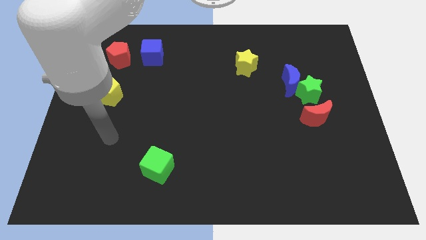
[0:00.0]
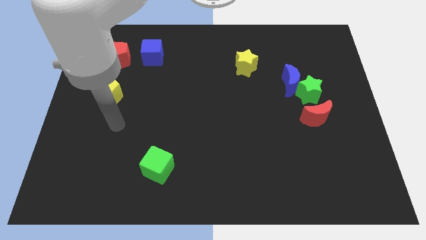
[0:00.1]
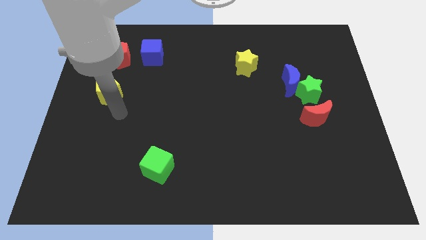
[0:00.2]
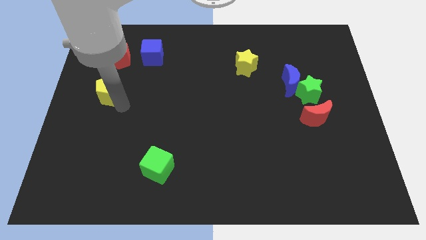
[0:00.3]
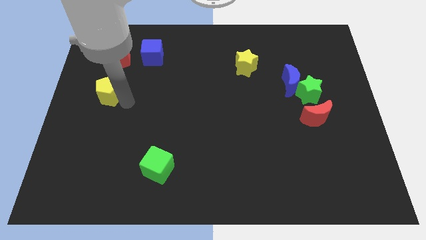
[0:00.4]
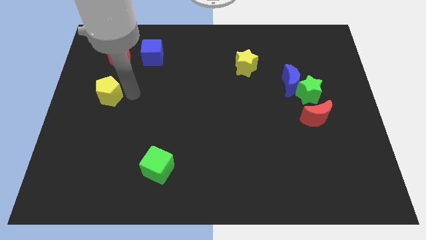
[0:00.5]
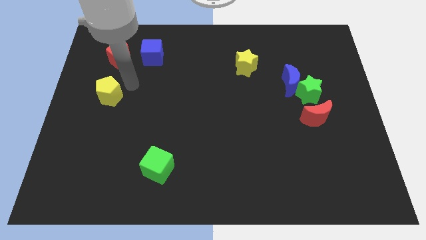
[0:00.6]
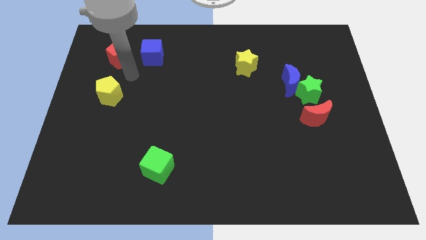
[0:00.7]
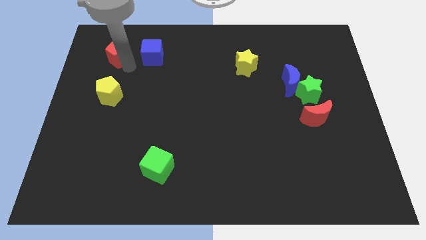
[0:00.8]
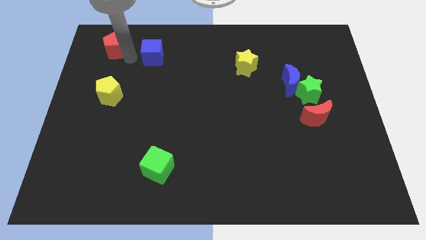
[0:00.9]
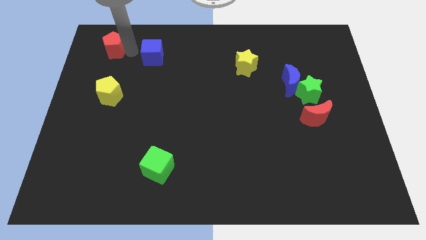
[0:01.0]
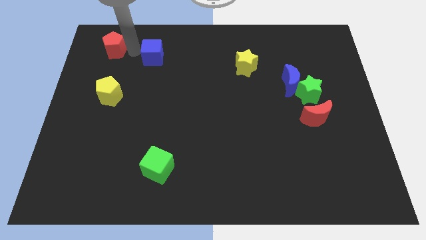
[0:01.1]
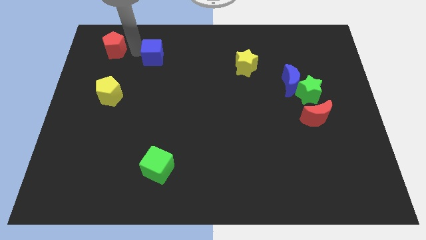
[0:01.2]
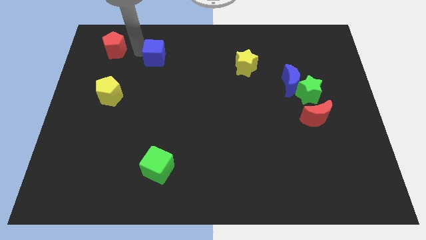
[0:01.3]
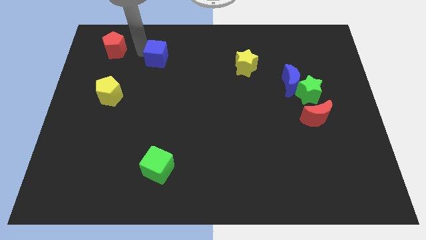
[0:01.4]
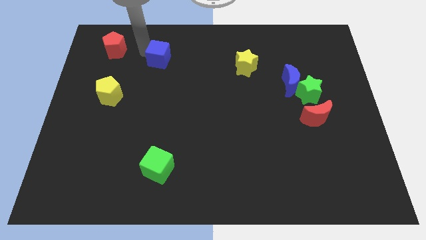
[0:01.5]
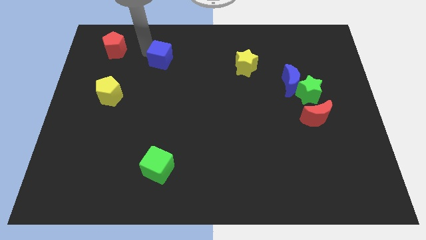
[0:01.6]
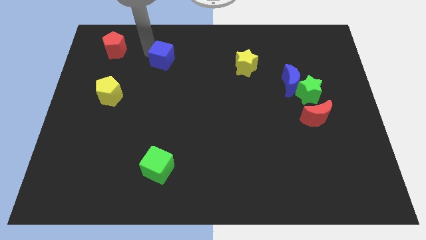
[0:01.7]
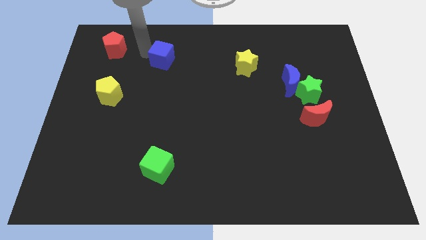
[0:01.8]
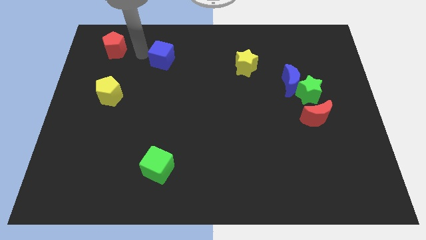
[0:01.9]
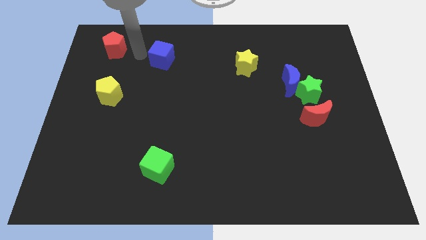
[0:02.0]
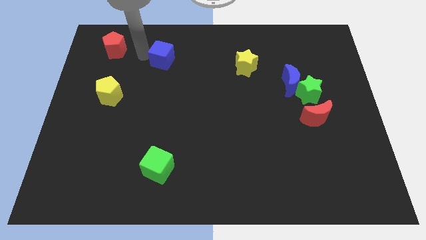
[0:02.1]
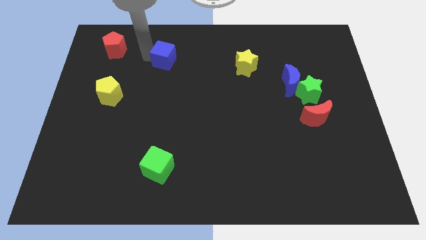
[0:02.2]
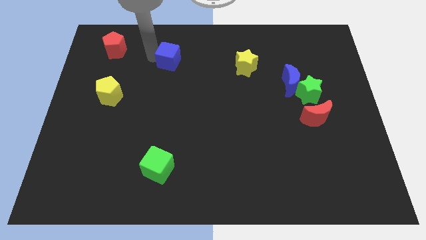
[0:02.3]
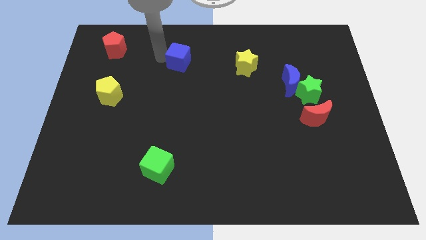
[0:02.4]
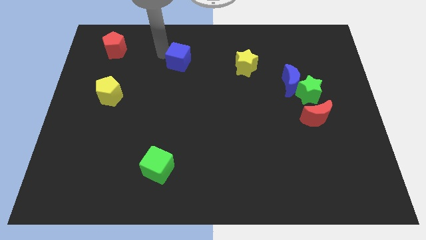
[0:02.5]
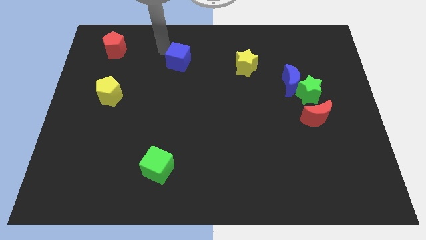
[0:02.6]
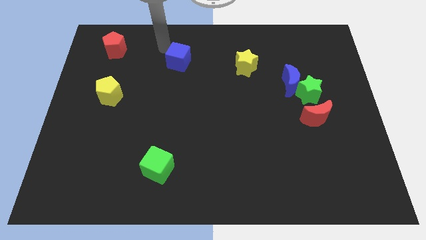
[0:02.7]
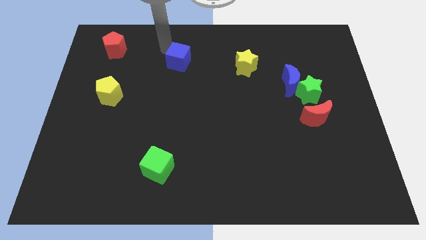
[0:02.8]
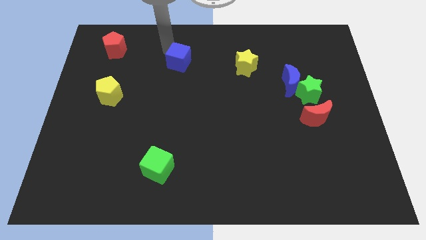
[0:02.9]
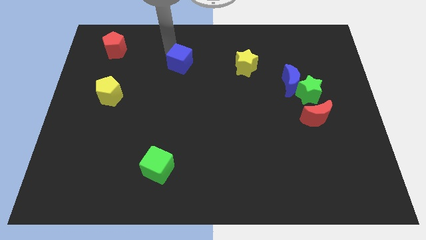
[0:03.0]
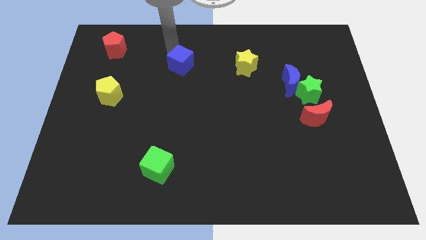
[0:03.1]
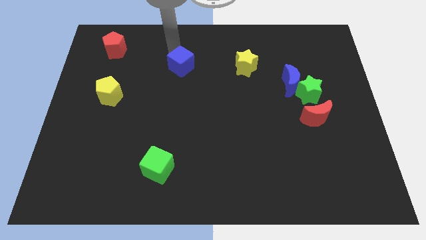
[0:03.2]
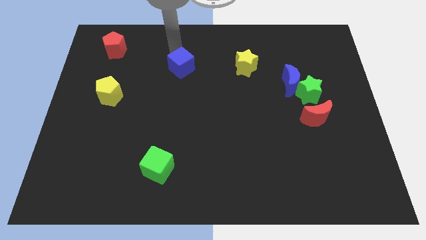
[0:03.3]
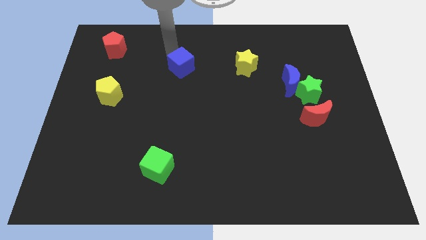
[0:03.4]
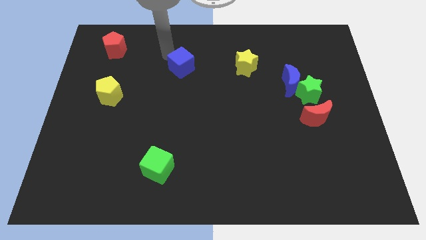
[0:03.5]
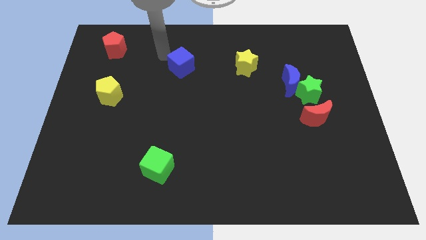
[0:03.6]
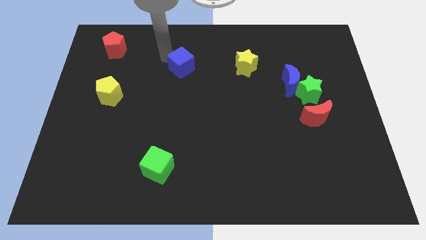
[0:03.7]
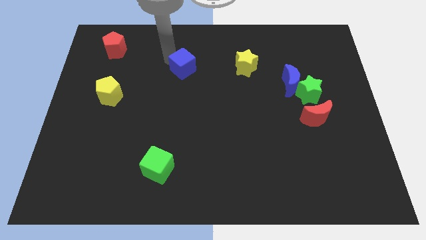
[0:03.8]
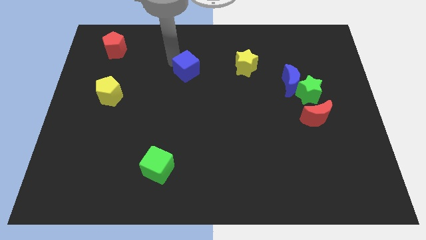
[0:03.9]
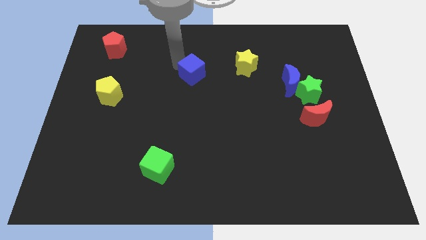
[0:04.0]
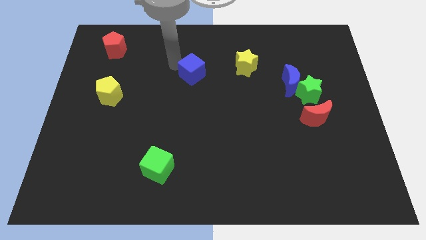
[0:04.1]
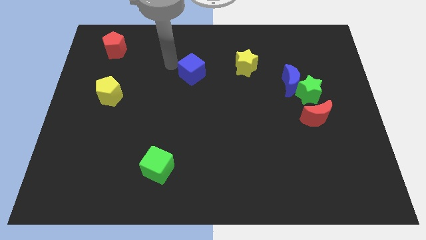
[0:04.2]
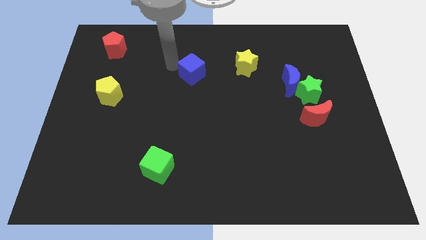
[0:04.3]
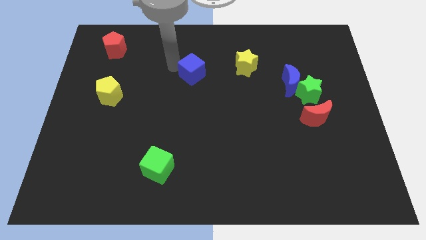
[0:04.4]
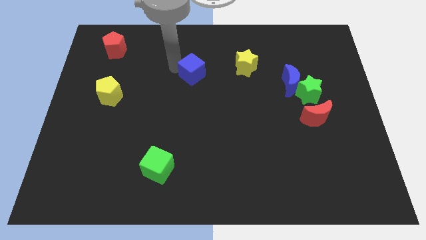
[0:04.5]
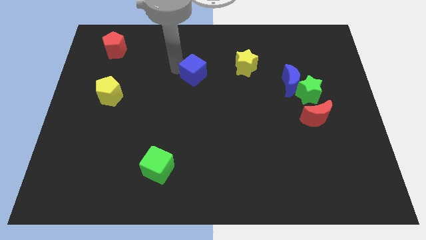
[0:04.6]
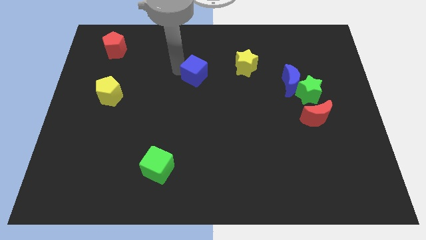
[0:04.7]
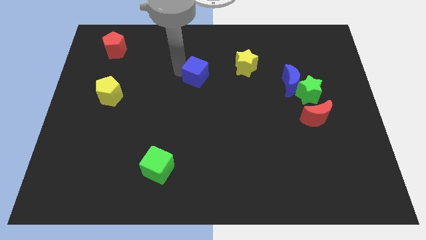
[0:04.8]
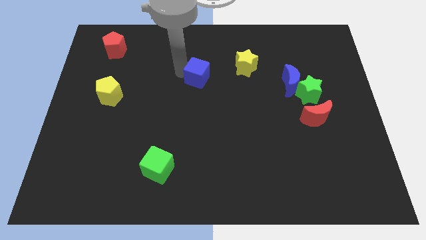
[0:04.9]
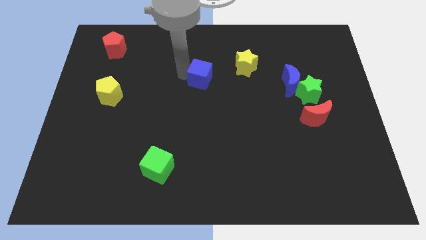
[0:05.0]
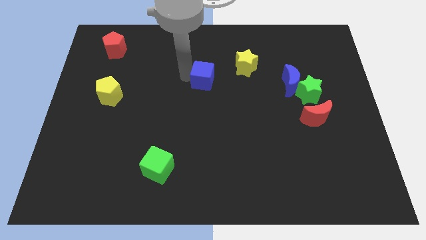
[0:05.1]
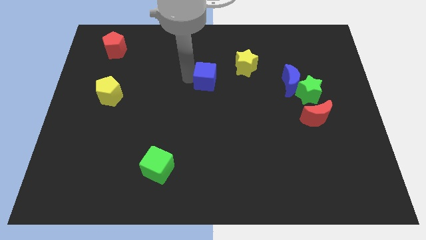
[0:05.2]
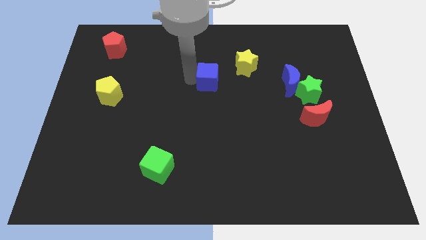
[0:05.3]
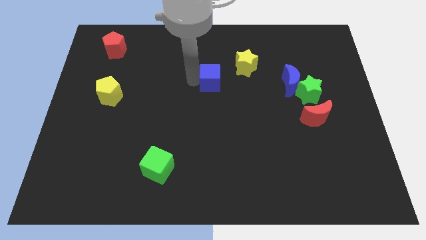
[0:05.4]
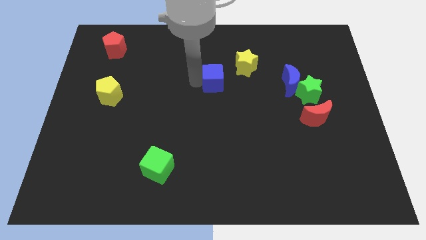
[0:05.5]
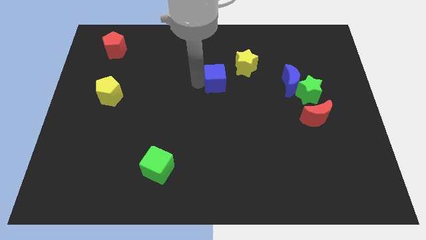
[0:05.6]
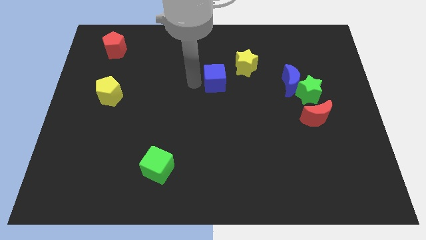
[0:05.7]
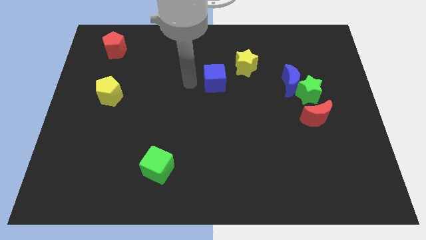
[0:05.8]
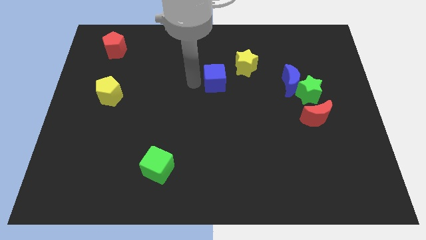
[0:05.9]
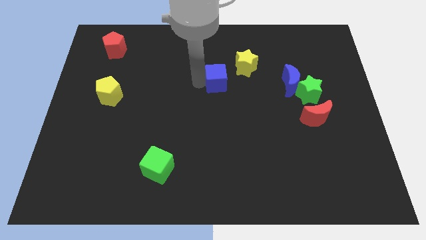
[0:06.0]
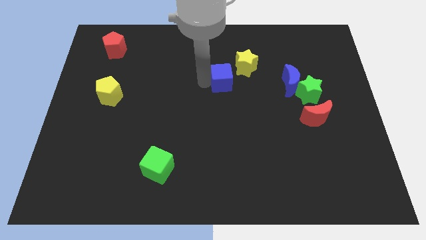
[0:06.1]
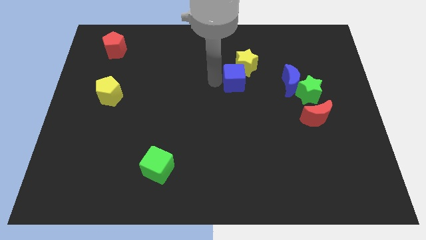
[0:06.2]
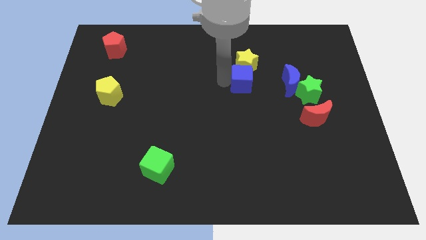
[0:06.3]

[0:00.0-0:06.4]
put the blue cube diagonally down and to the right of the yellow star
